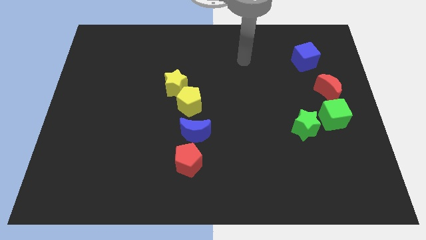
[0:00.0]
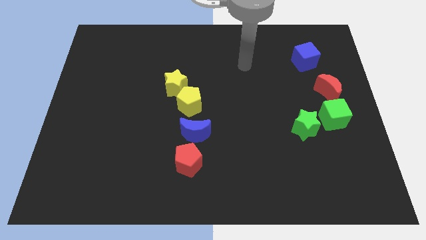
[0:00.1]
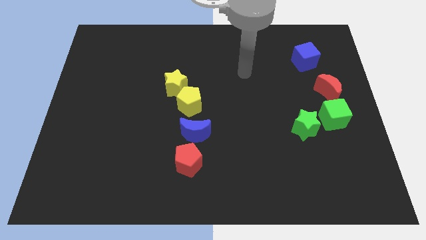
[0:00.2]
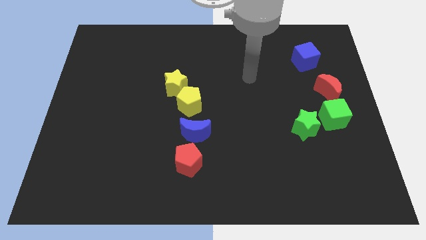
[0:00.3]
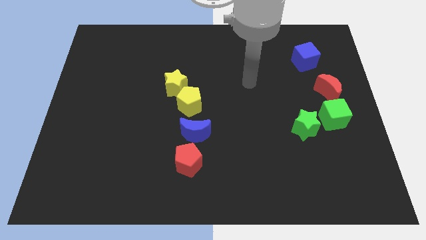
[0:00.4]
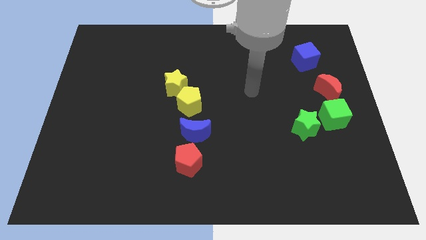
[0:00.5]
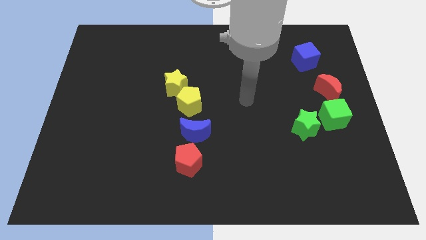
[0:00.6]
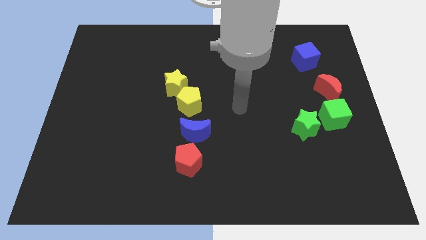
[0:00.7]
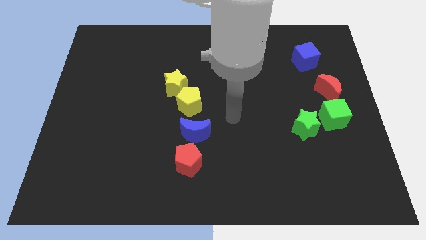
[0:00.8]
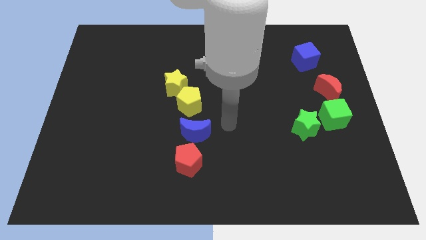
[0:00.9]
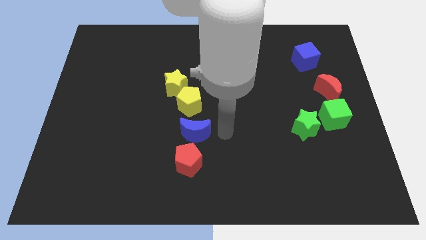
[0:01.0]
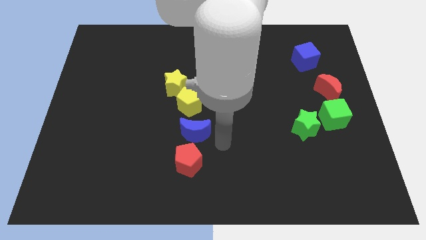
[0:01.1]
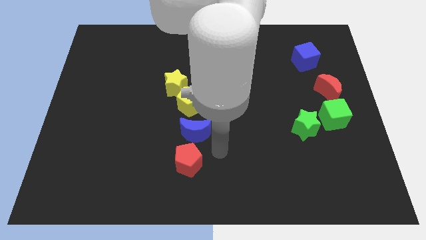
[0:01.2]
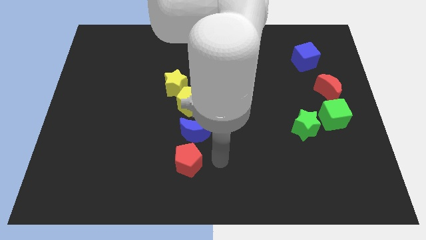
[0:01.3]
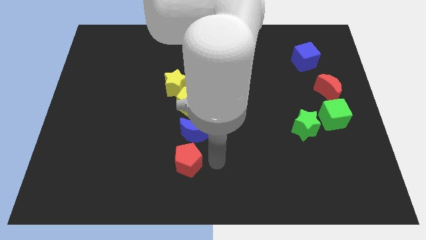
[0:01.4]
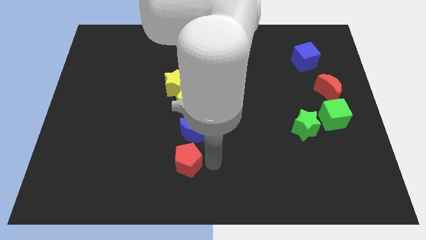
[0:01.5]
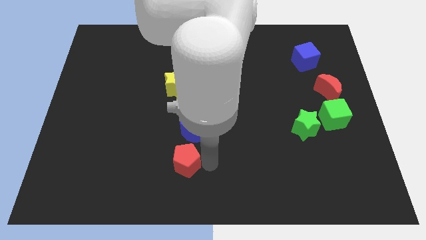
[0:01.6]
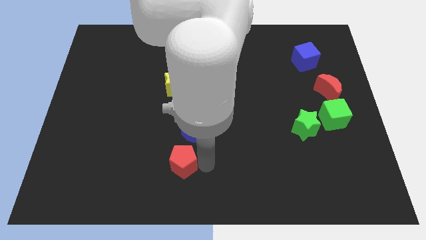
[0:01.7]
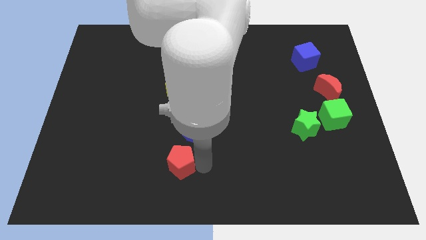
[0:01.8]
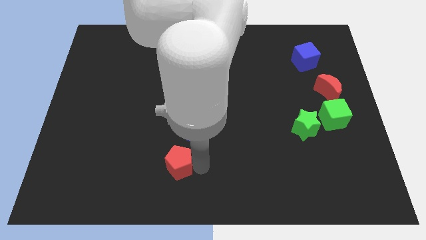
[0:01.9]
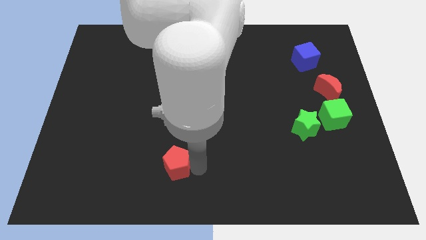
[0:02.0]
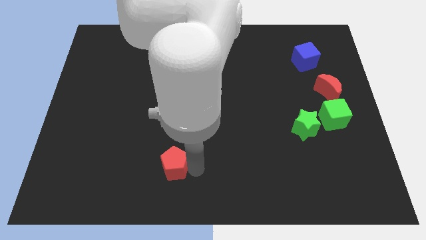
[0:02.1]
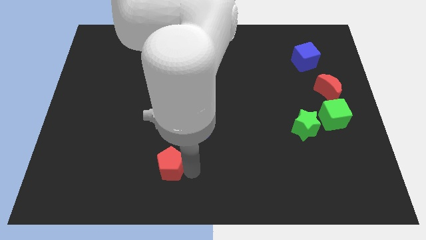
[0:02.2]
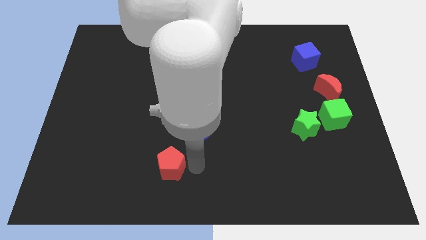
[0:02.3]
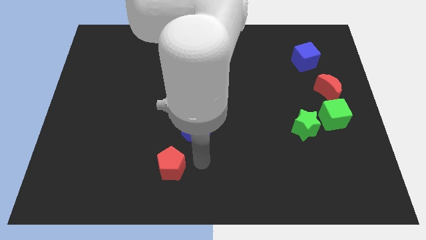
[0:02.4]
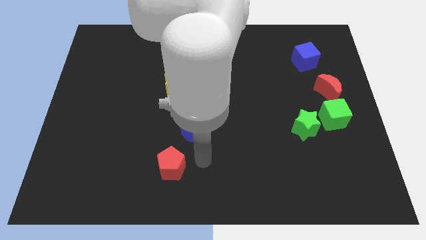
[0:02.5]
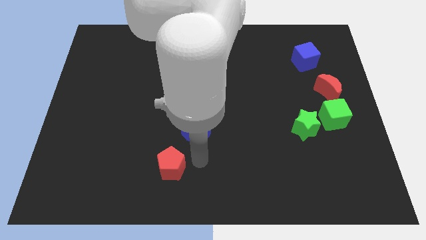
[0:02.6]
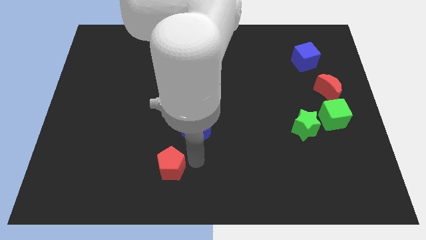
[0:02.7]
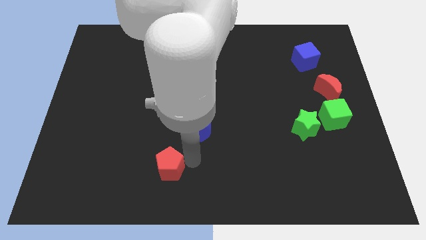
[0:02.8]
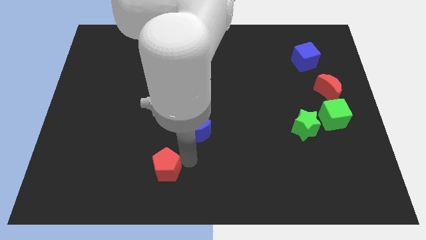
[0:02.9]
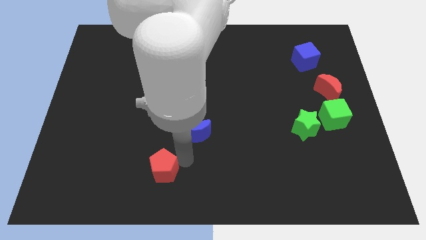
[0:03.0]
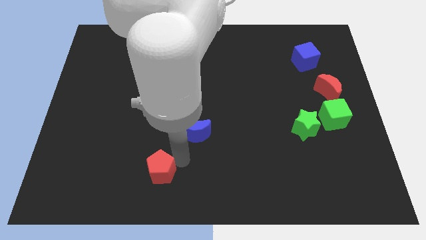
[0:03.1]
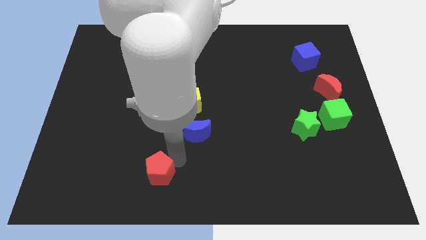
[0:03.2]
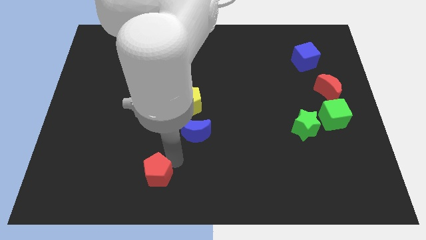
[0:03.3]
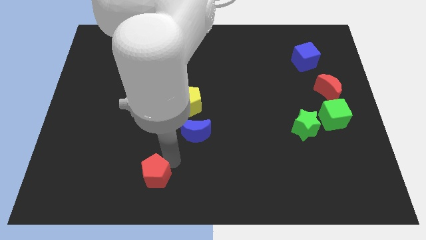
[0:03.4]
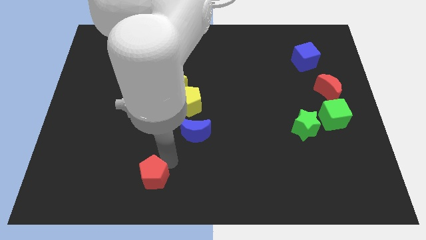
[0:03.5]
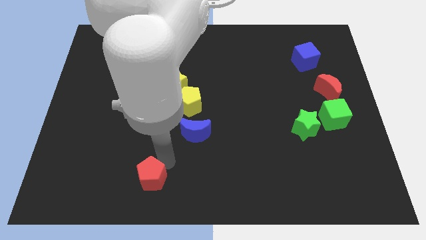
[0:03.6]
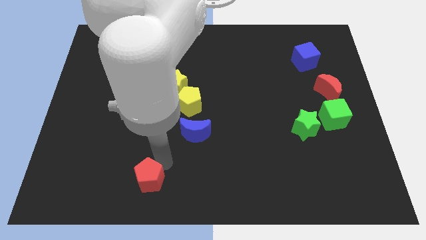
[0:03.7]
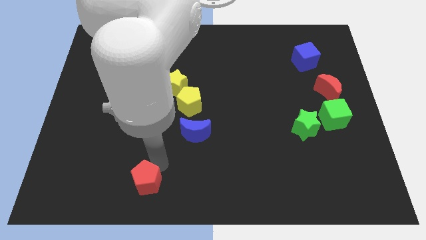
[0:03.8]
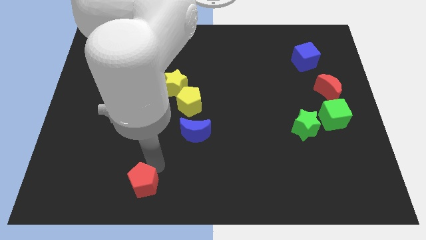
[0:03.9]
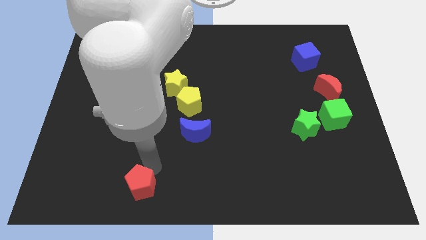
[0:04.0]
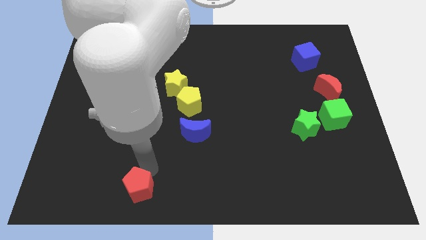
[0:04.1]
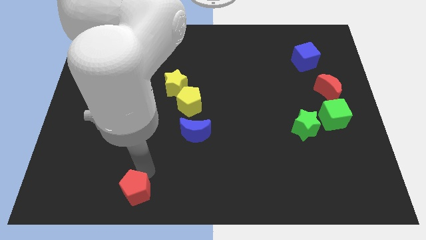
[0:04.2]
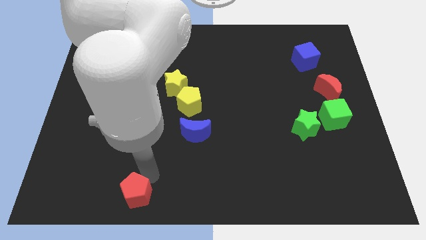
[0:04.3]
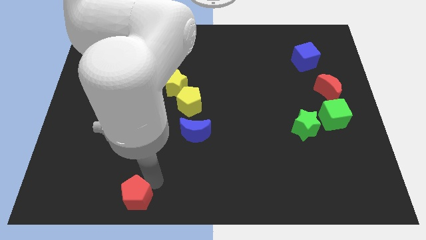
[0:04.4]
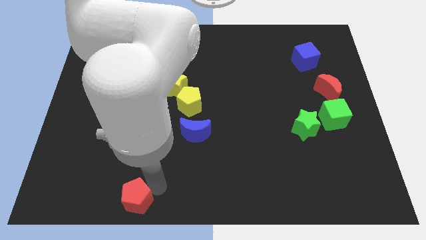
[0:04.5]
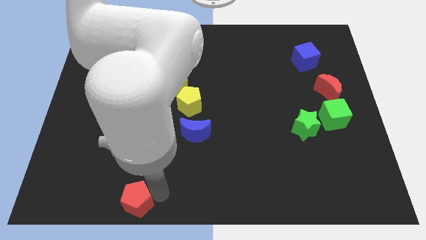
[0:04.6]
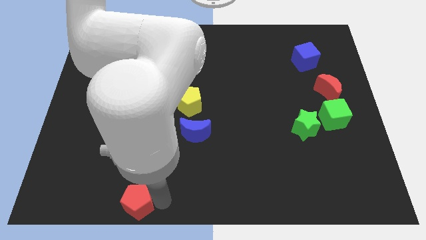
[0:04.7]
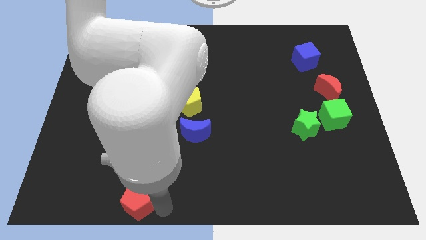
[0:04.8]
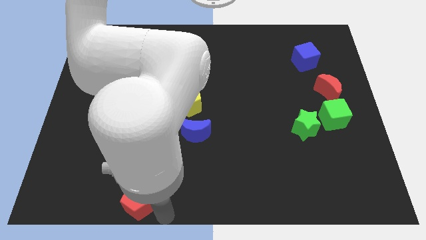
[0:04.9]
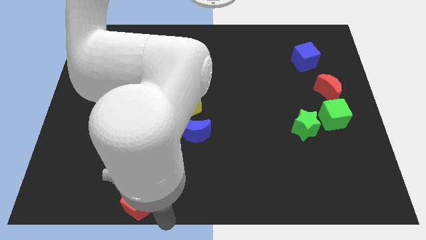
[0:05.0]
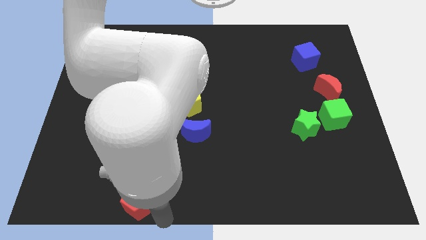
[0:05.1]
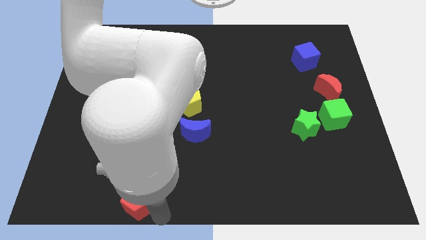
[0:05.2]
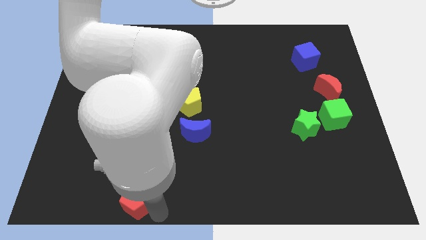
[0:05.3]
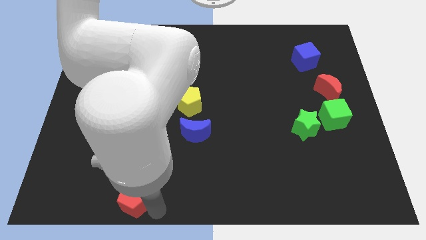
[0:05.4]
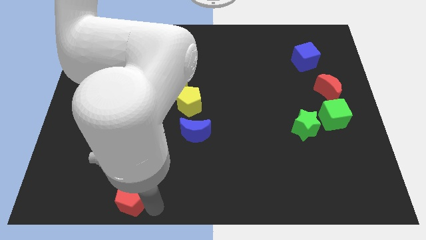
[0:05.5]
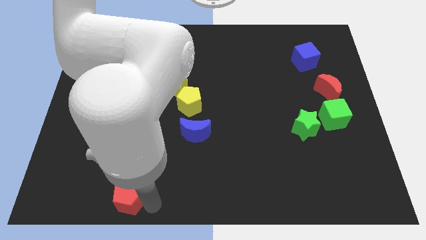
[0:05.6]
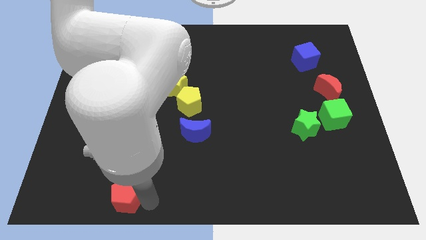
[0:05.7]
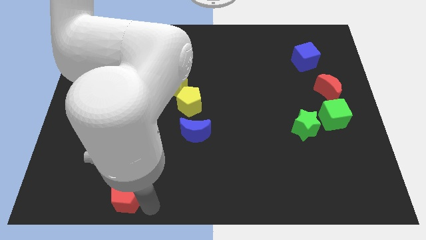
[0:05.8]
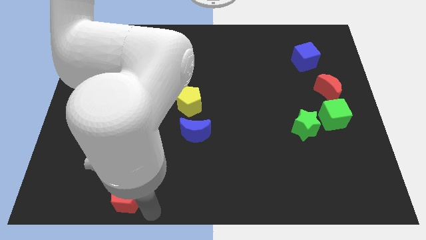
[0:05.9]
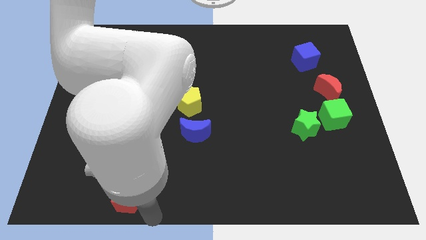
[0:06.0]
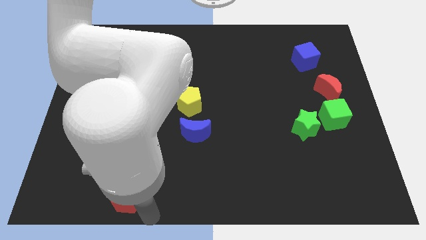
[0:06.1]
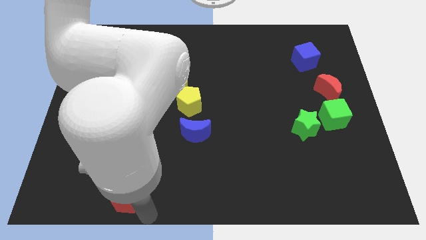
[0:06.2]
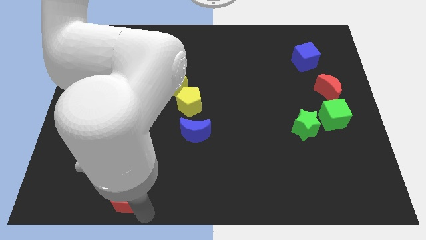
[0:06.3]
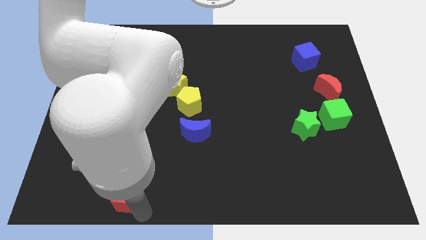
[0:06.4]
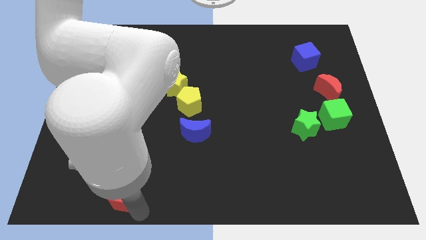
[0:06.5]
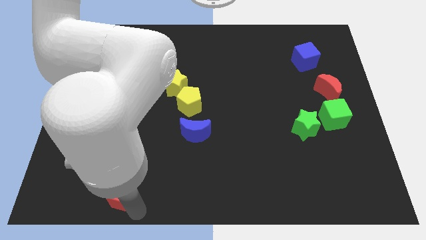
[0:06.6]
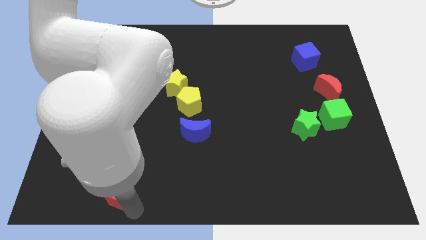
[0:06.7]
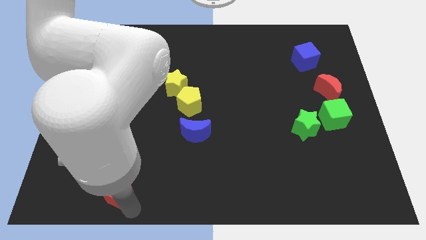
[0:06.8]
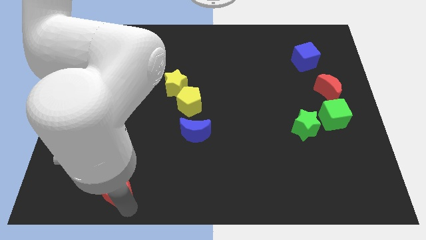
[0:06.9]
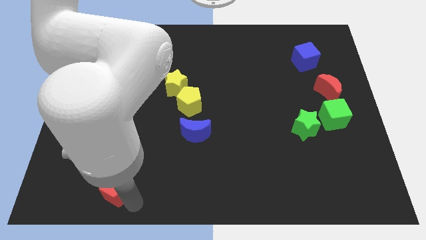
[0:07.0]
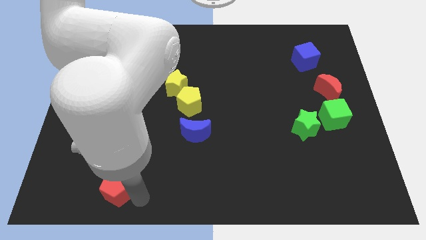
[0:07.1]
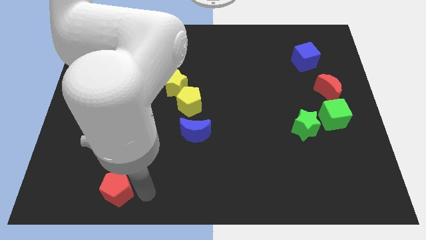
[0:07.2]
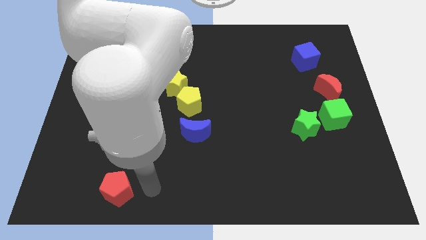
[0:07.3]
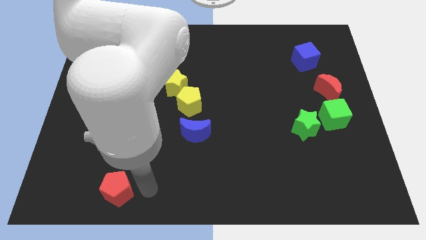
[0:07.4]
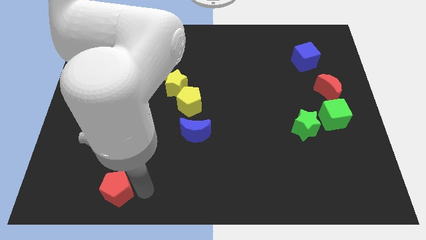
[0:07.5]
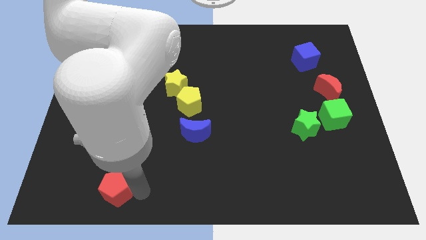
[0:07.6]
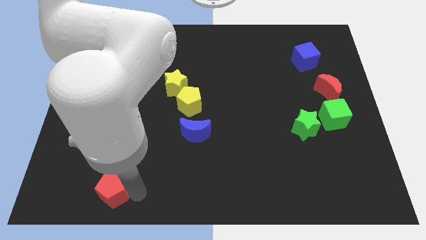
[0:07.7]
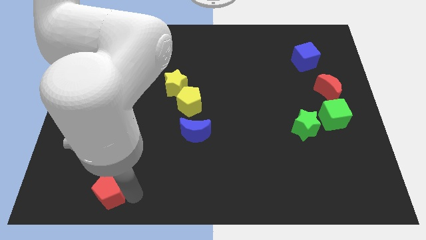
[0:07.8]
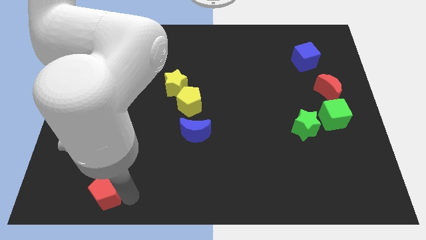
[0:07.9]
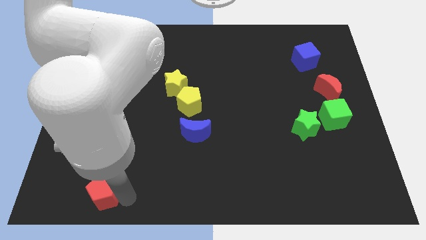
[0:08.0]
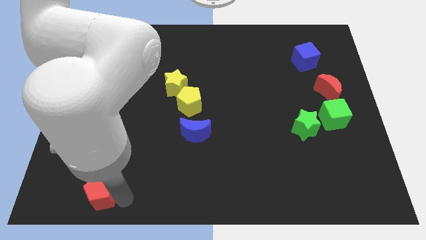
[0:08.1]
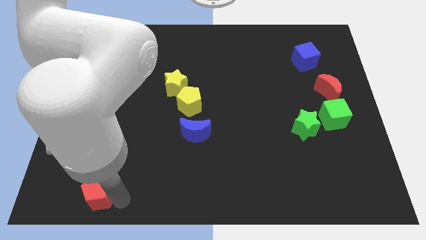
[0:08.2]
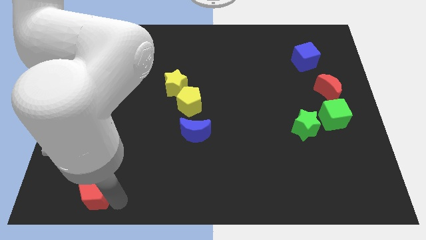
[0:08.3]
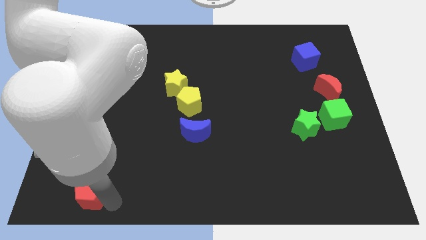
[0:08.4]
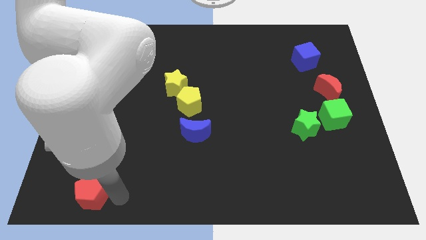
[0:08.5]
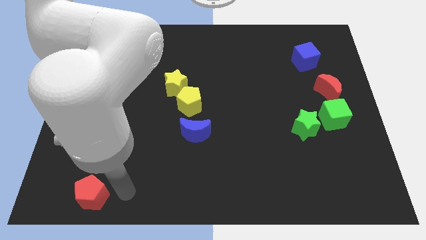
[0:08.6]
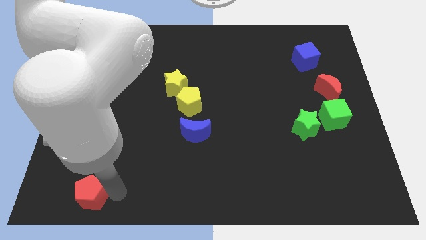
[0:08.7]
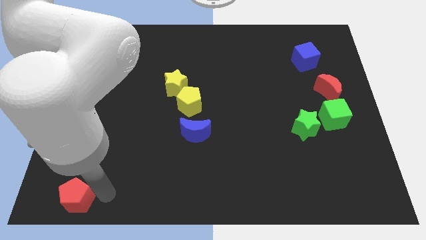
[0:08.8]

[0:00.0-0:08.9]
push the red pentagon to the lower left corner
